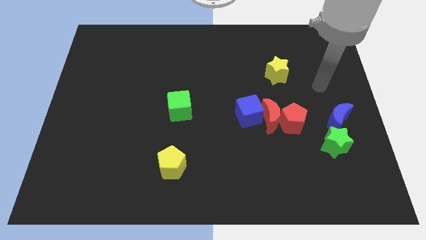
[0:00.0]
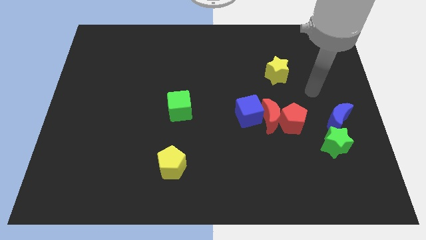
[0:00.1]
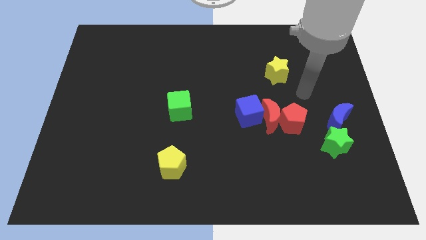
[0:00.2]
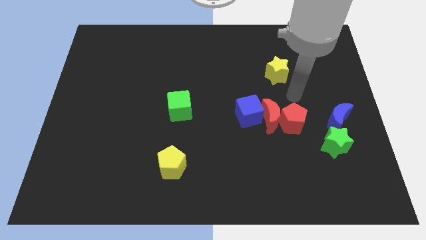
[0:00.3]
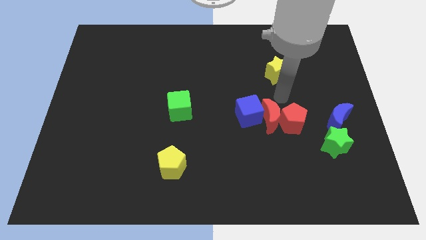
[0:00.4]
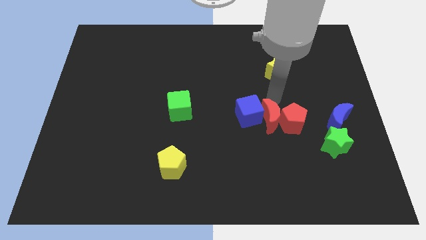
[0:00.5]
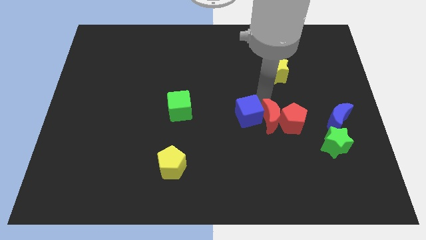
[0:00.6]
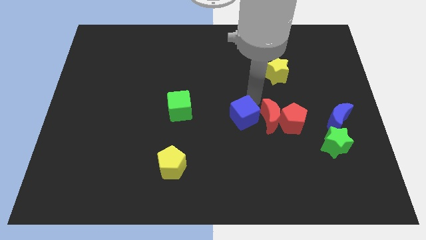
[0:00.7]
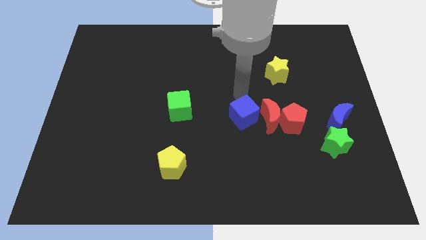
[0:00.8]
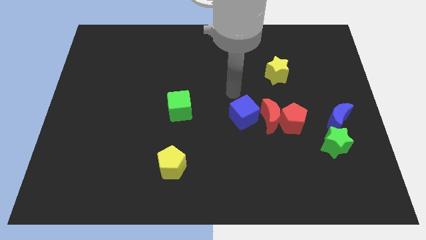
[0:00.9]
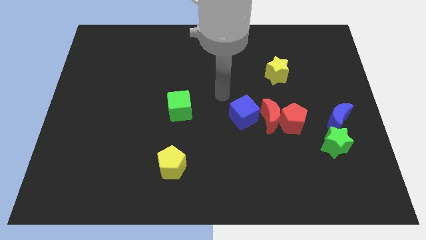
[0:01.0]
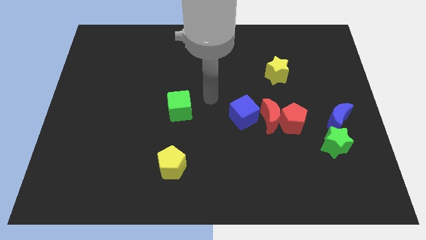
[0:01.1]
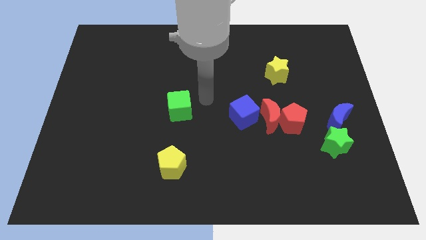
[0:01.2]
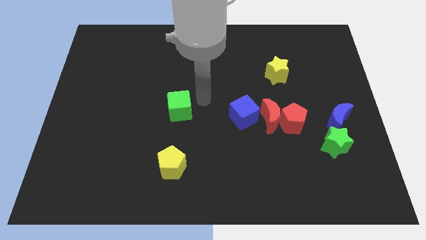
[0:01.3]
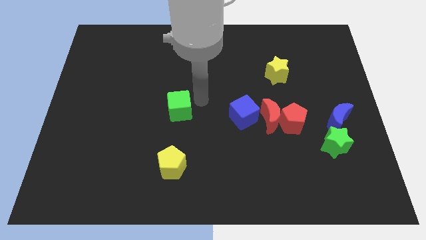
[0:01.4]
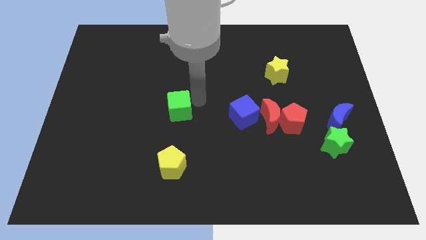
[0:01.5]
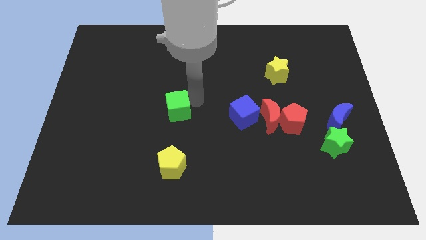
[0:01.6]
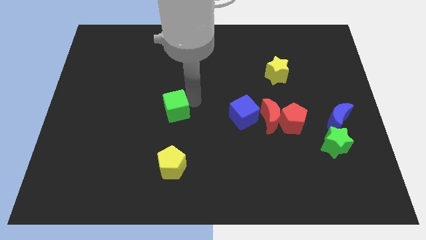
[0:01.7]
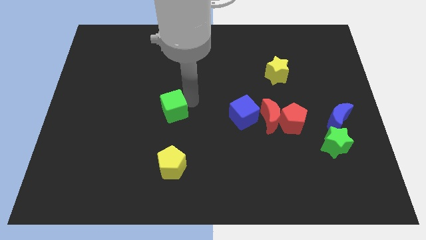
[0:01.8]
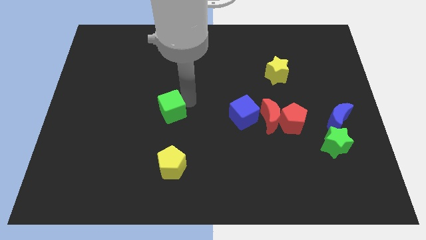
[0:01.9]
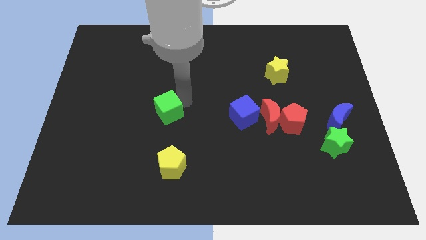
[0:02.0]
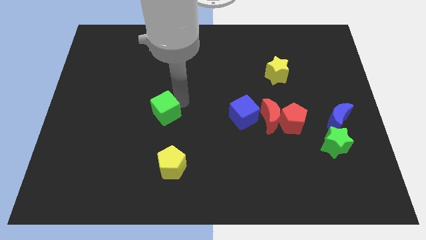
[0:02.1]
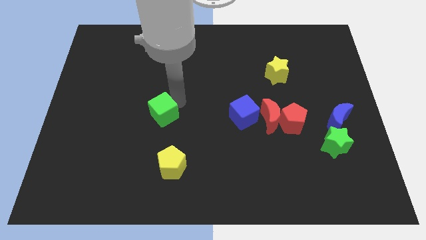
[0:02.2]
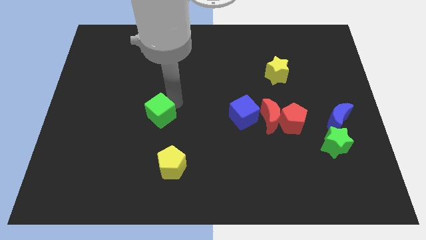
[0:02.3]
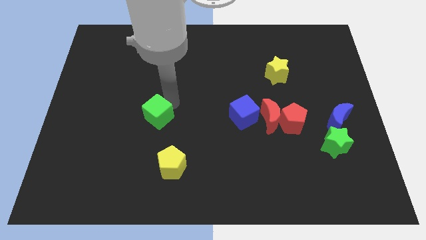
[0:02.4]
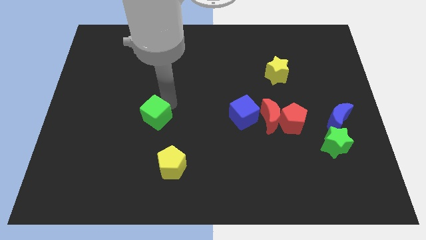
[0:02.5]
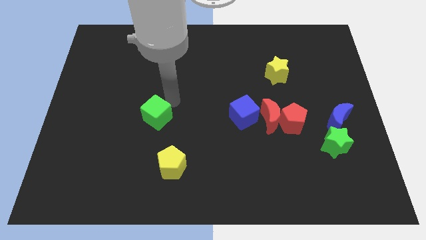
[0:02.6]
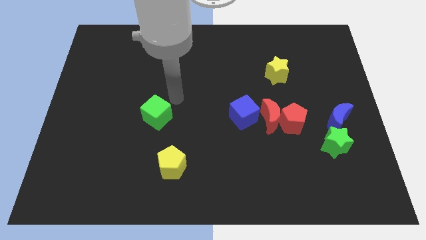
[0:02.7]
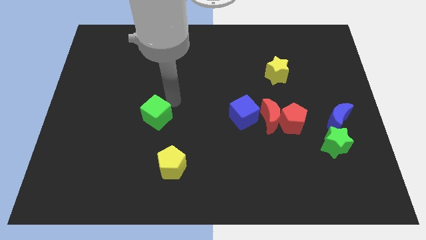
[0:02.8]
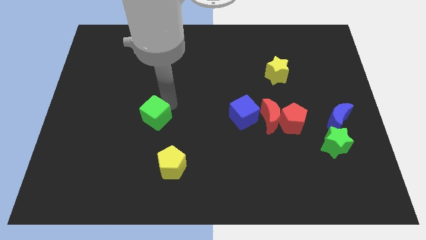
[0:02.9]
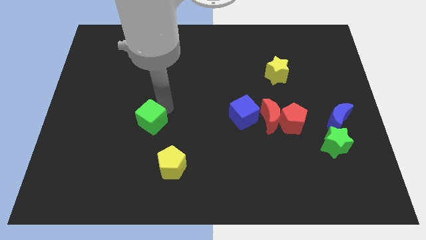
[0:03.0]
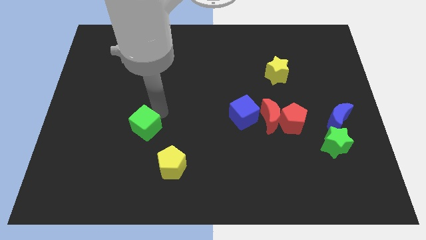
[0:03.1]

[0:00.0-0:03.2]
slightly move the green cube downwards and to the left diagonally

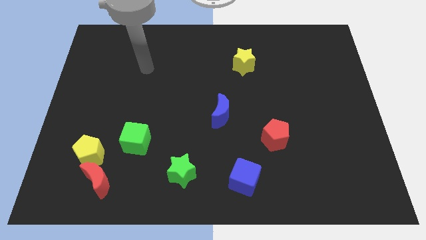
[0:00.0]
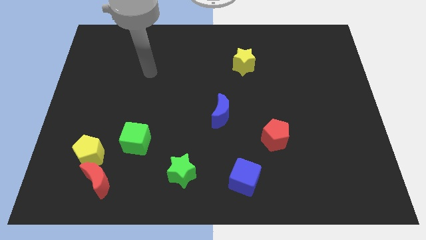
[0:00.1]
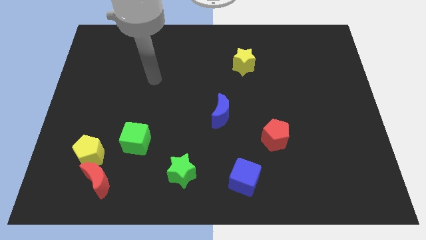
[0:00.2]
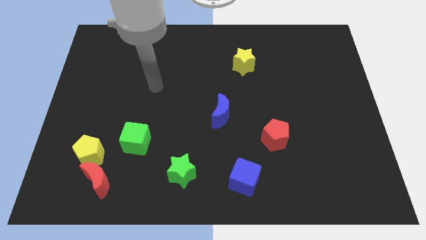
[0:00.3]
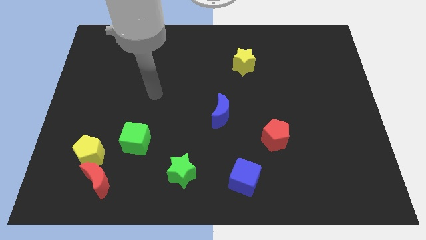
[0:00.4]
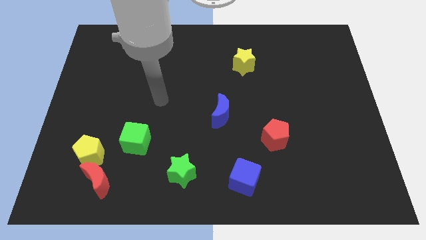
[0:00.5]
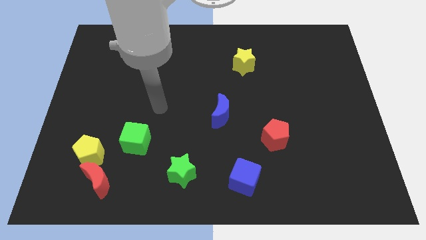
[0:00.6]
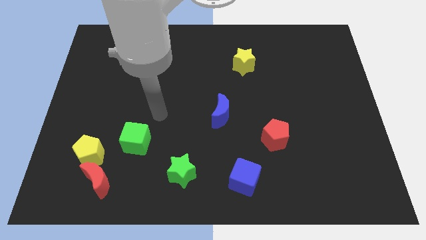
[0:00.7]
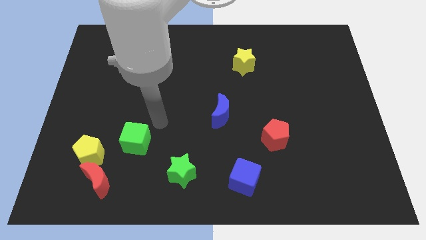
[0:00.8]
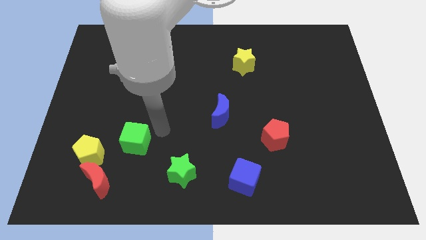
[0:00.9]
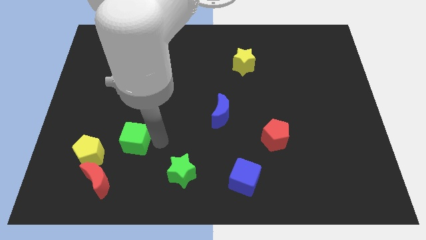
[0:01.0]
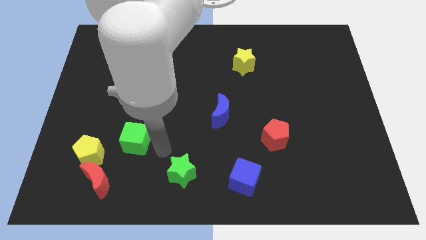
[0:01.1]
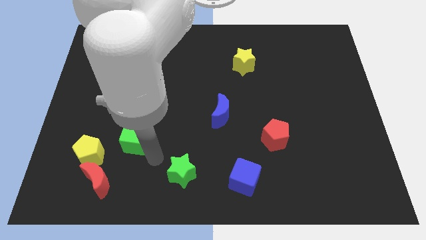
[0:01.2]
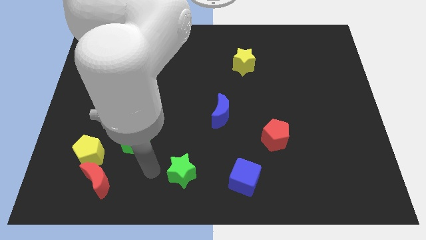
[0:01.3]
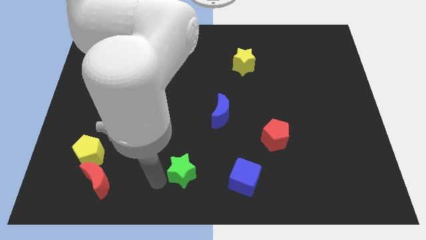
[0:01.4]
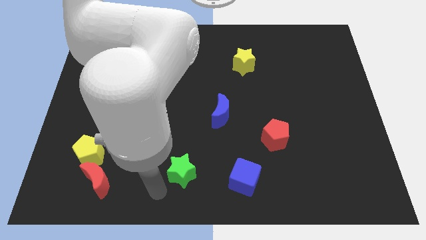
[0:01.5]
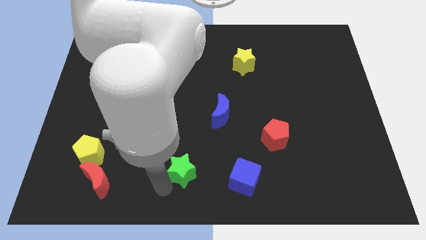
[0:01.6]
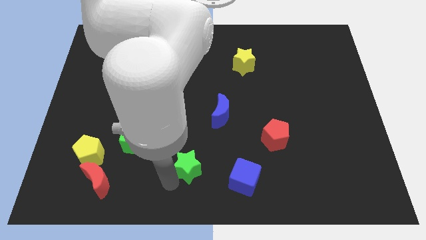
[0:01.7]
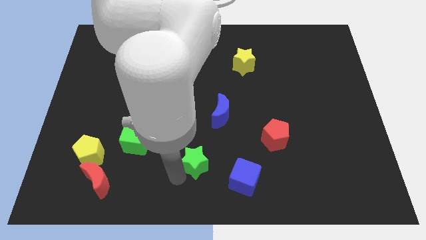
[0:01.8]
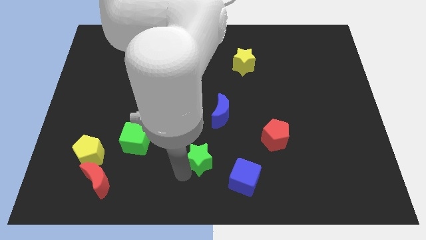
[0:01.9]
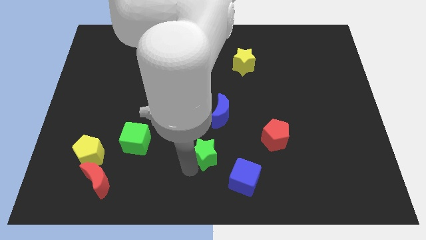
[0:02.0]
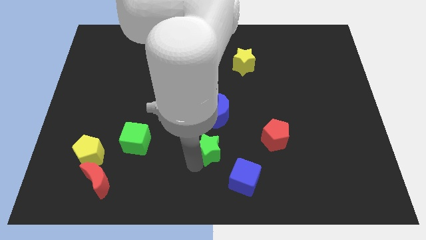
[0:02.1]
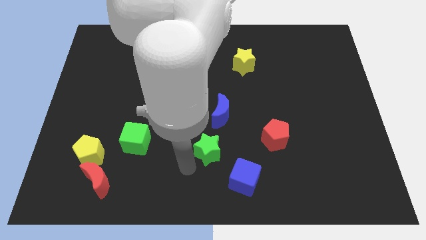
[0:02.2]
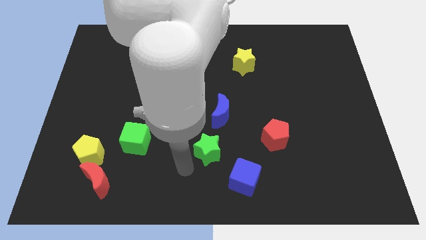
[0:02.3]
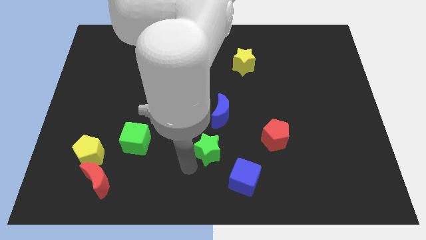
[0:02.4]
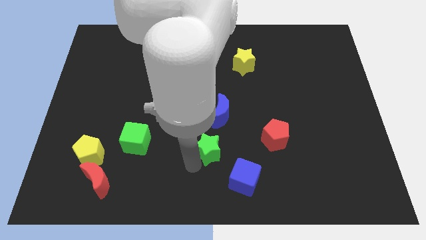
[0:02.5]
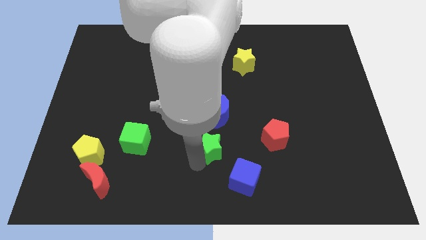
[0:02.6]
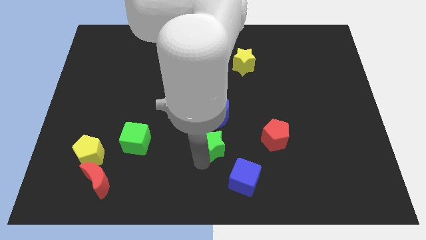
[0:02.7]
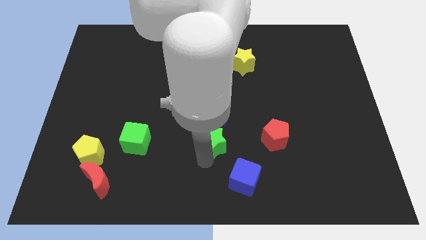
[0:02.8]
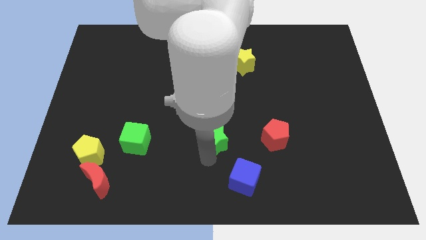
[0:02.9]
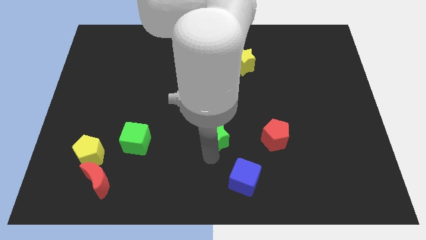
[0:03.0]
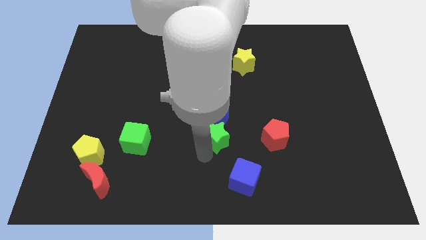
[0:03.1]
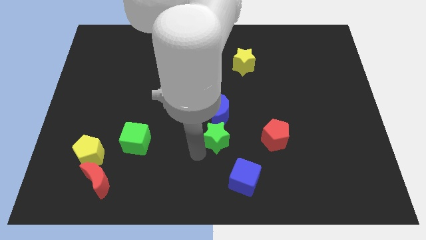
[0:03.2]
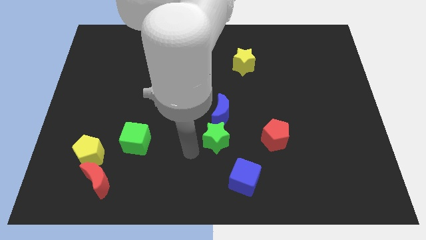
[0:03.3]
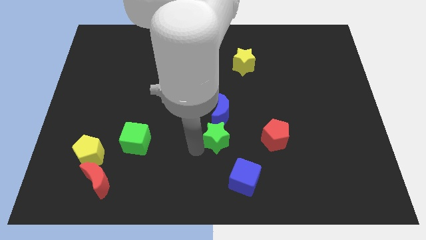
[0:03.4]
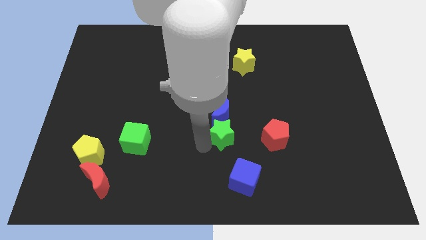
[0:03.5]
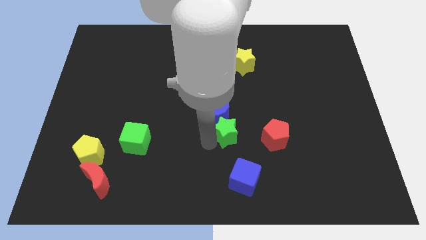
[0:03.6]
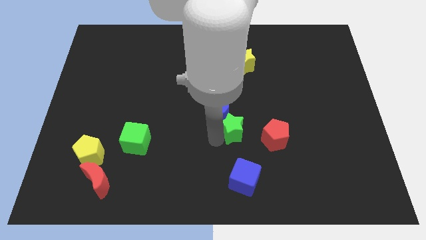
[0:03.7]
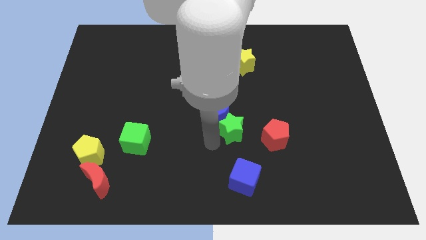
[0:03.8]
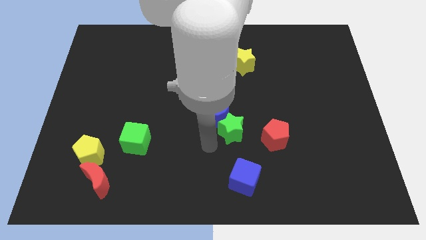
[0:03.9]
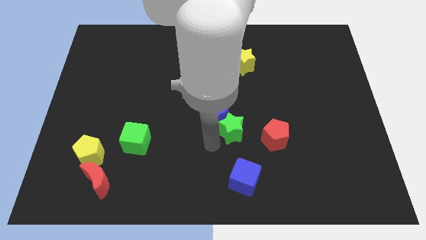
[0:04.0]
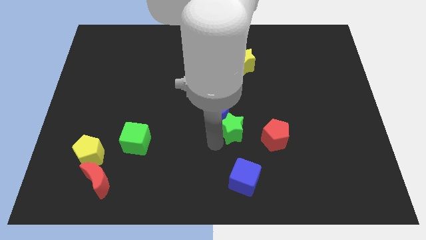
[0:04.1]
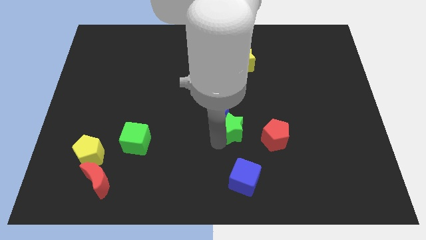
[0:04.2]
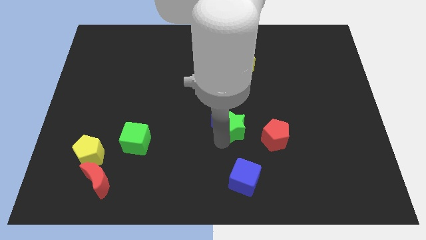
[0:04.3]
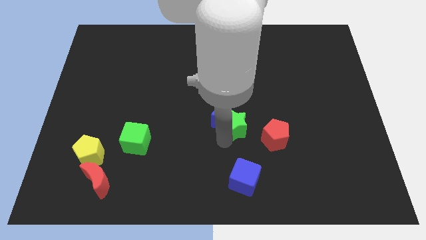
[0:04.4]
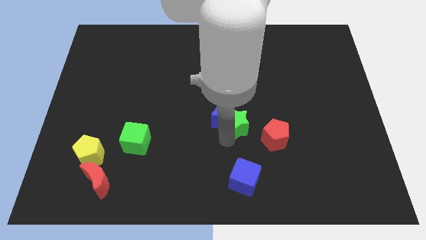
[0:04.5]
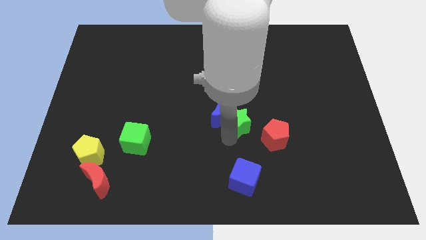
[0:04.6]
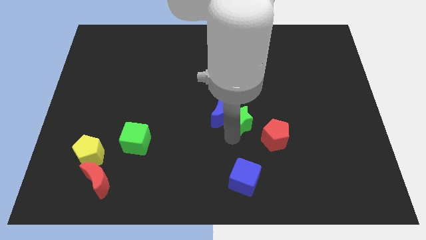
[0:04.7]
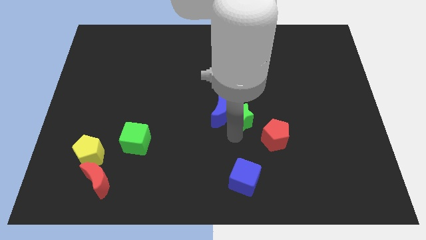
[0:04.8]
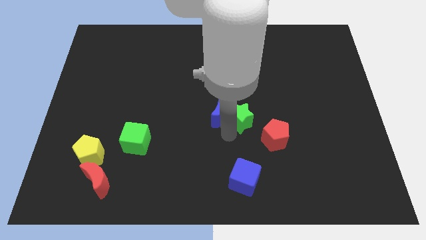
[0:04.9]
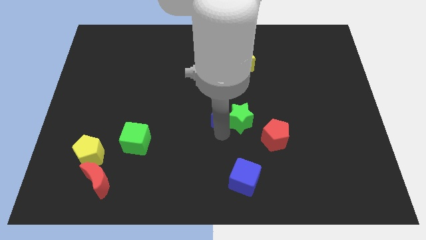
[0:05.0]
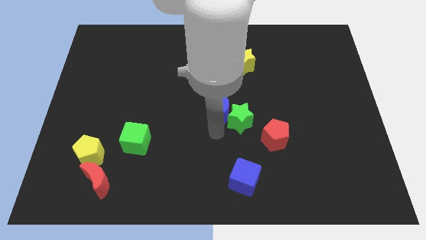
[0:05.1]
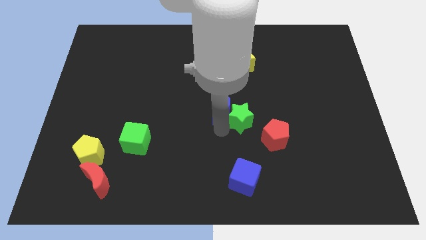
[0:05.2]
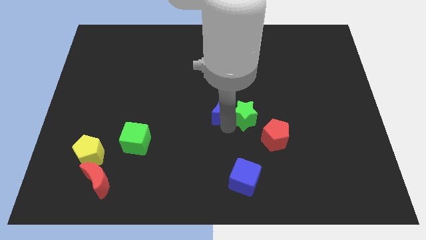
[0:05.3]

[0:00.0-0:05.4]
slide the green star diagonally upwards and to the right
